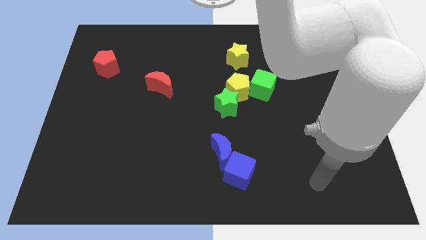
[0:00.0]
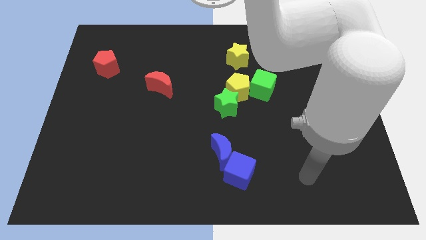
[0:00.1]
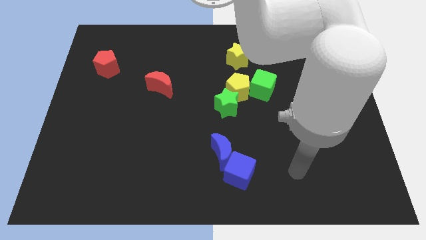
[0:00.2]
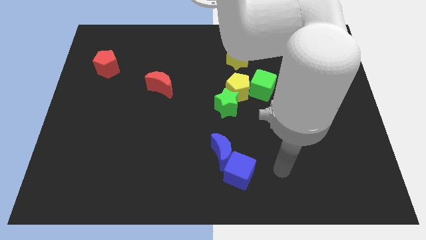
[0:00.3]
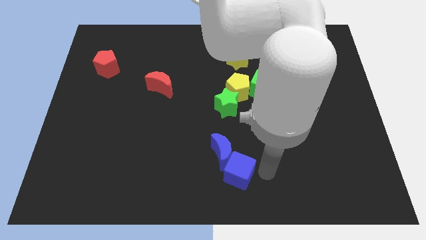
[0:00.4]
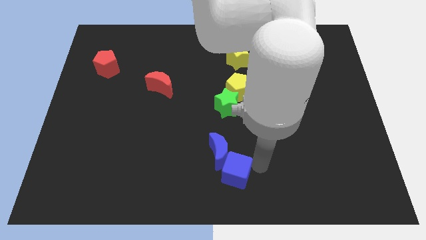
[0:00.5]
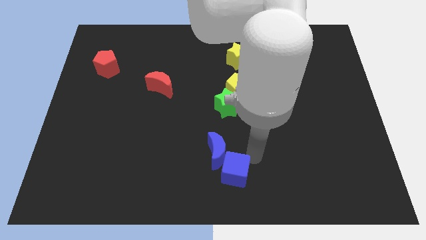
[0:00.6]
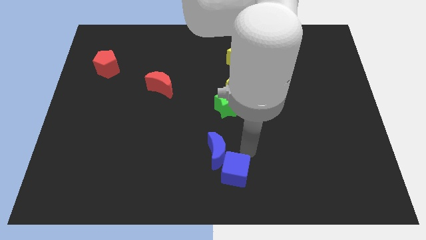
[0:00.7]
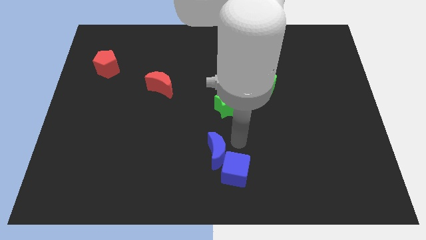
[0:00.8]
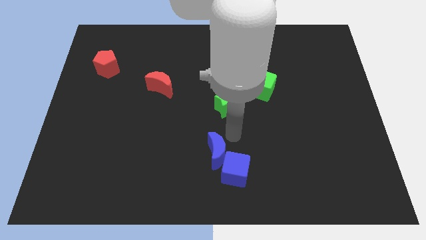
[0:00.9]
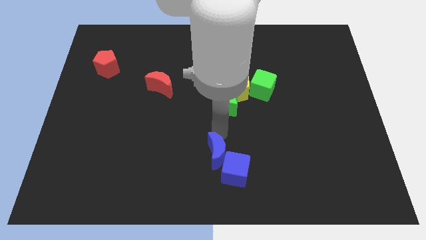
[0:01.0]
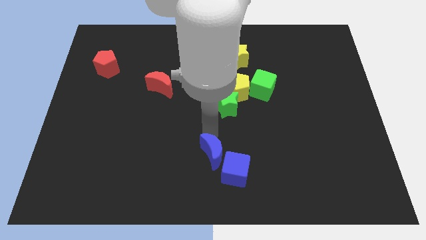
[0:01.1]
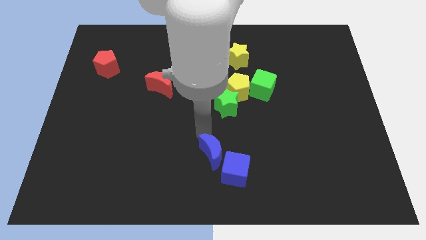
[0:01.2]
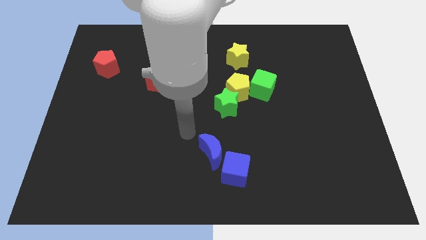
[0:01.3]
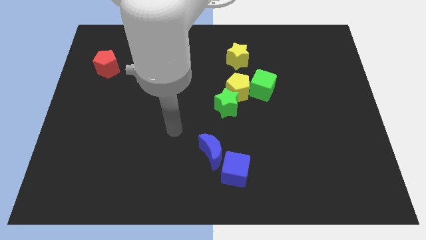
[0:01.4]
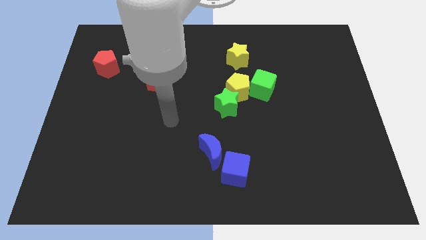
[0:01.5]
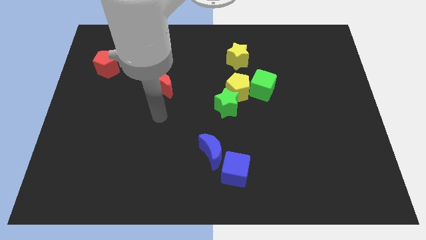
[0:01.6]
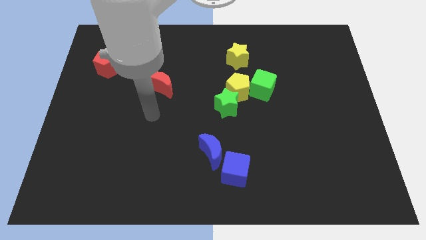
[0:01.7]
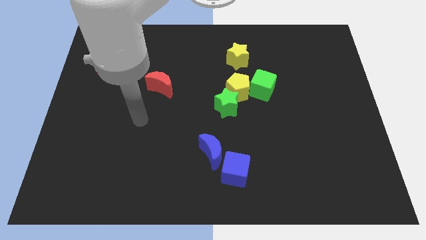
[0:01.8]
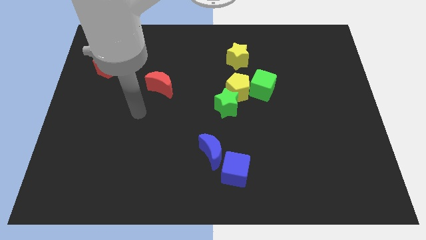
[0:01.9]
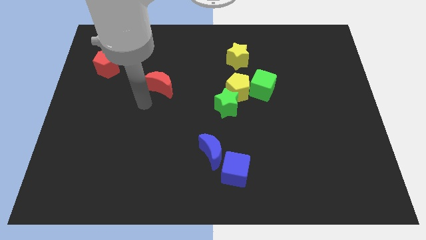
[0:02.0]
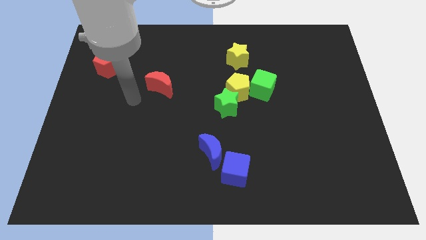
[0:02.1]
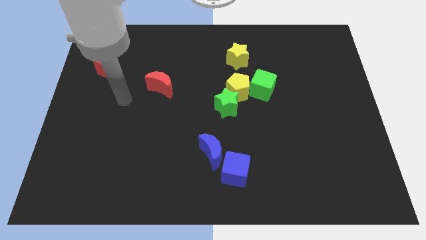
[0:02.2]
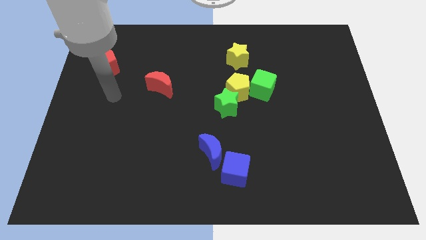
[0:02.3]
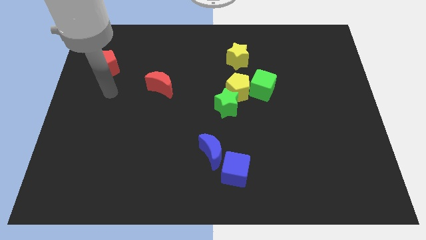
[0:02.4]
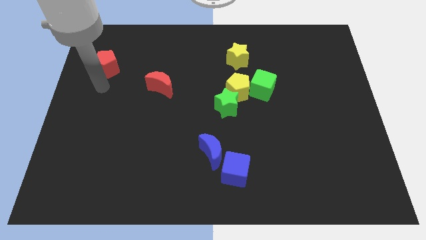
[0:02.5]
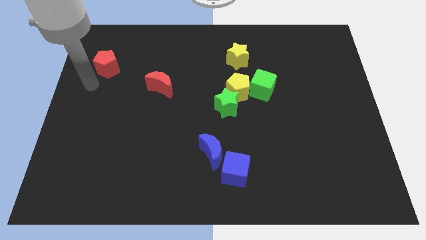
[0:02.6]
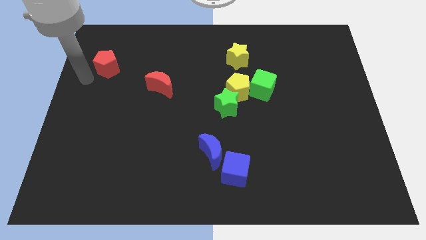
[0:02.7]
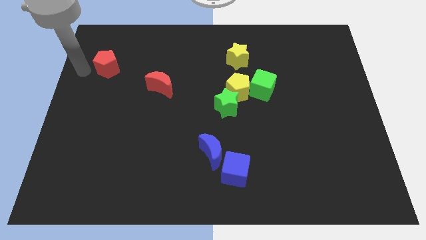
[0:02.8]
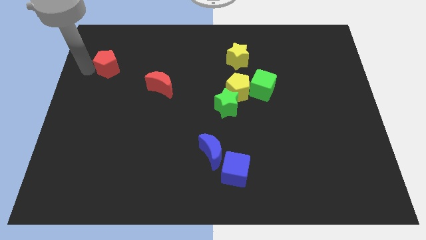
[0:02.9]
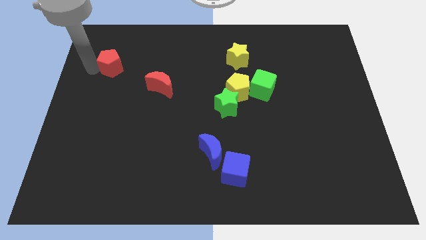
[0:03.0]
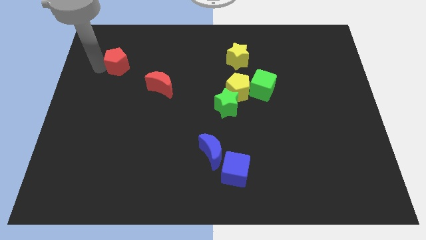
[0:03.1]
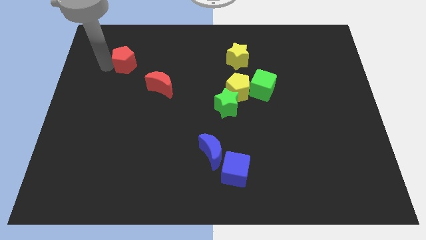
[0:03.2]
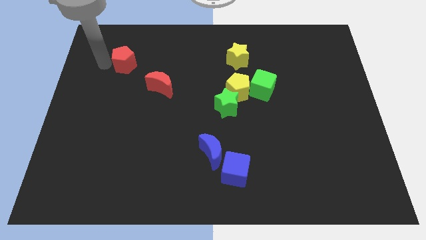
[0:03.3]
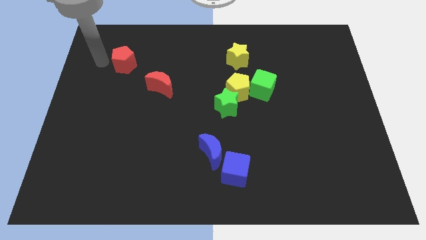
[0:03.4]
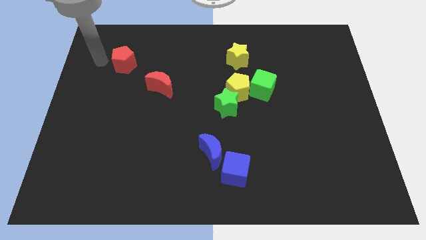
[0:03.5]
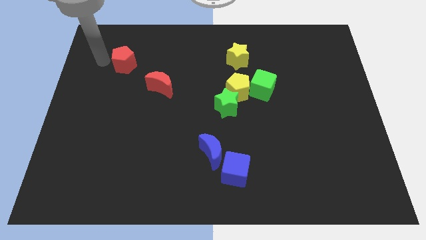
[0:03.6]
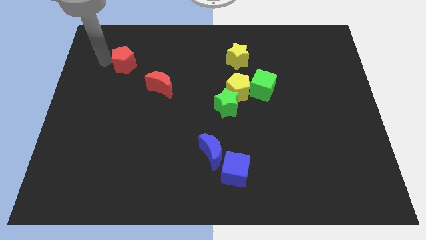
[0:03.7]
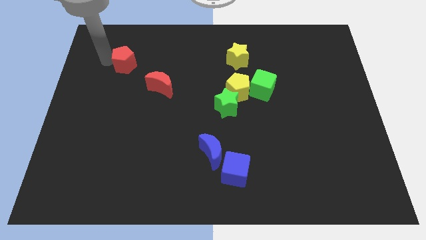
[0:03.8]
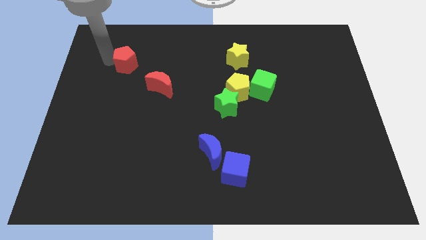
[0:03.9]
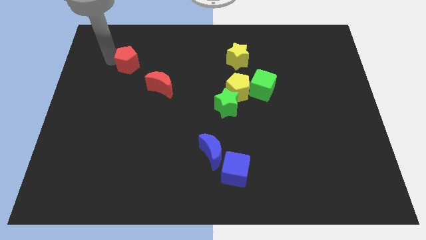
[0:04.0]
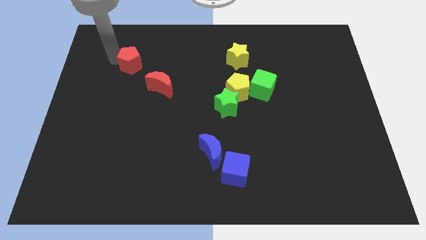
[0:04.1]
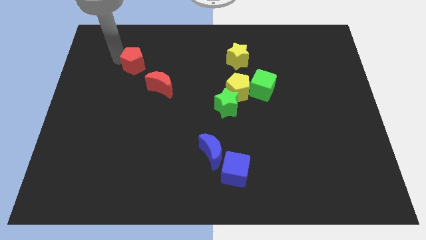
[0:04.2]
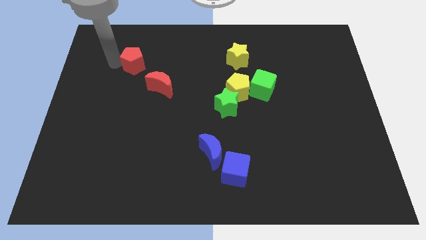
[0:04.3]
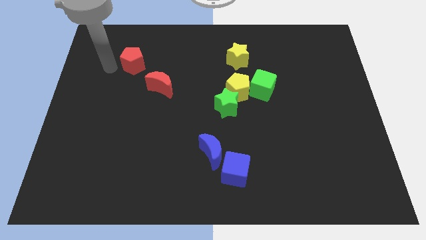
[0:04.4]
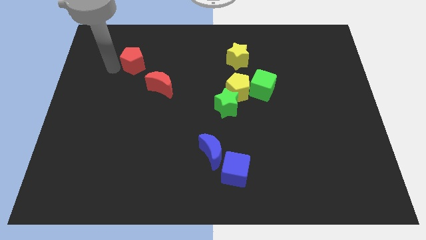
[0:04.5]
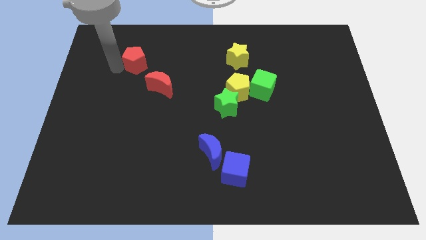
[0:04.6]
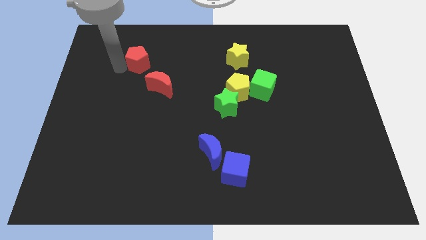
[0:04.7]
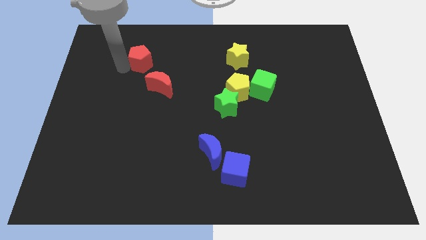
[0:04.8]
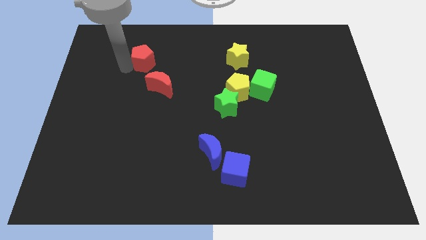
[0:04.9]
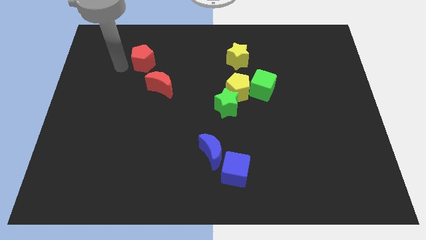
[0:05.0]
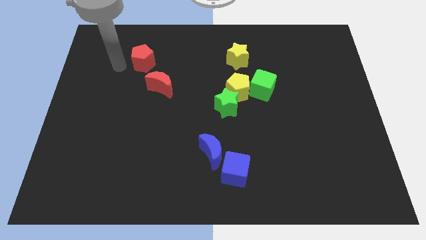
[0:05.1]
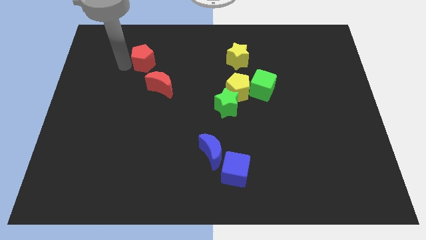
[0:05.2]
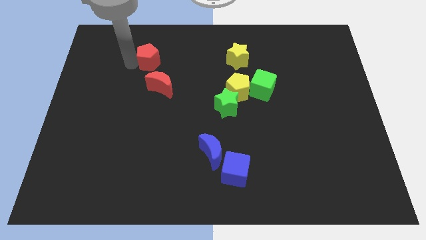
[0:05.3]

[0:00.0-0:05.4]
push the red pentagon above the red moon

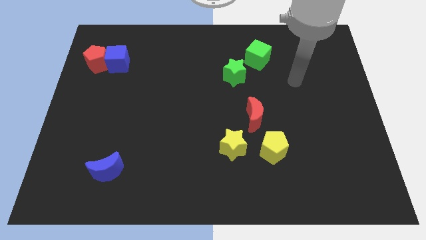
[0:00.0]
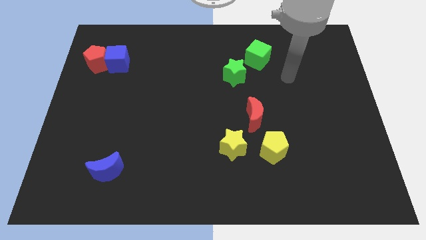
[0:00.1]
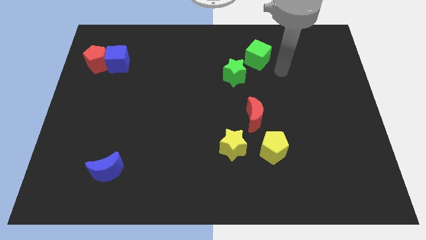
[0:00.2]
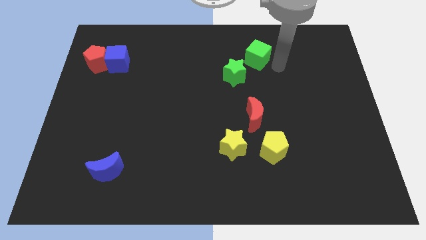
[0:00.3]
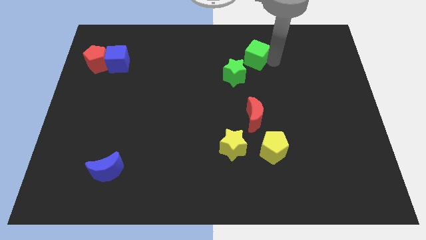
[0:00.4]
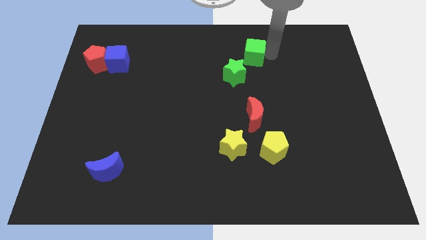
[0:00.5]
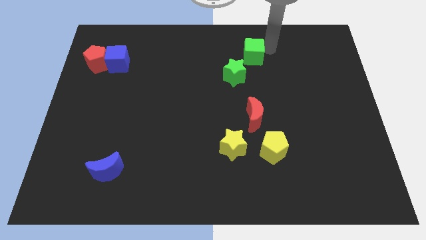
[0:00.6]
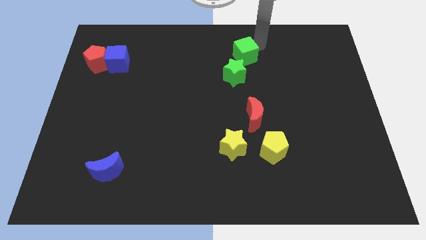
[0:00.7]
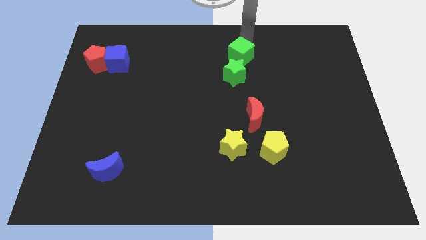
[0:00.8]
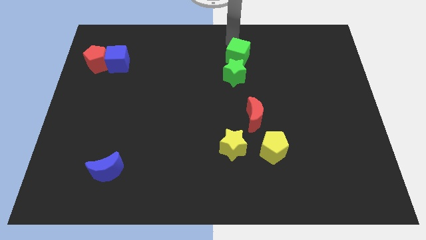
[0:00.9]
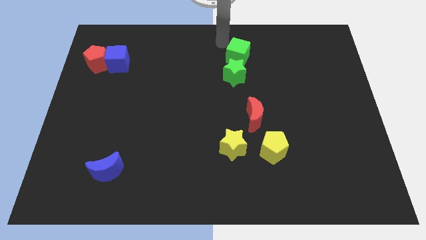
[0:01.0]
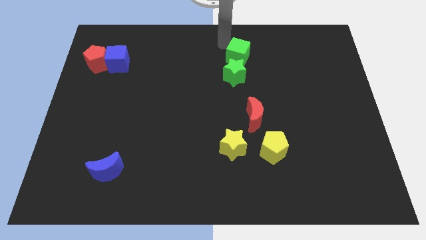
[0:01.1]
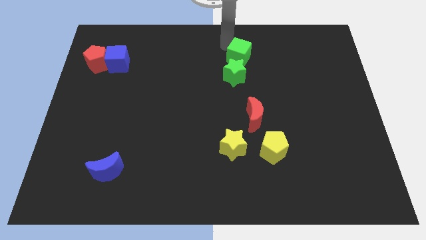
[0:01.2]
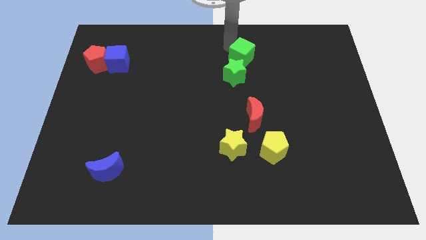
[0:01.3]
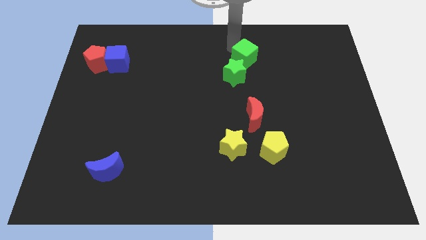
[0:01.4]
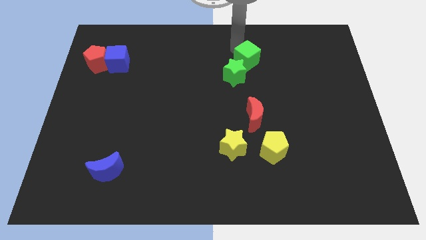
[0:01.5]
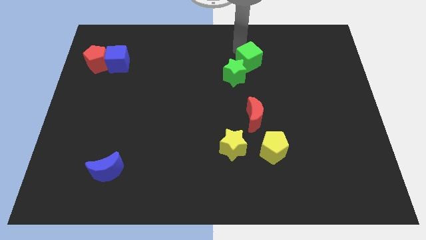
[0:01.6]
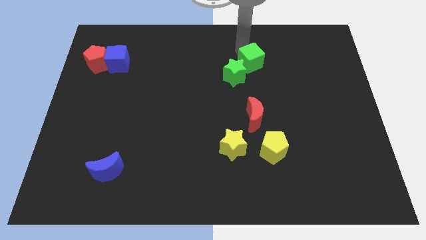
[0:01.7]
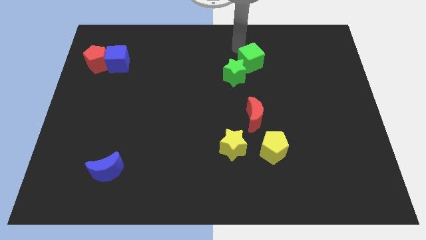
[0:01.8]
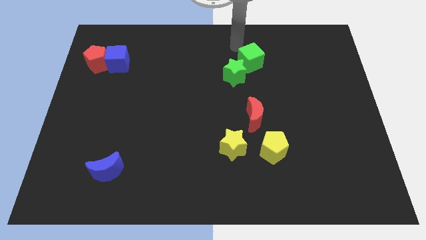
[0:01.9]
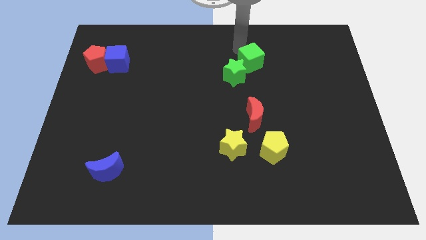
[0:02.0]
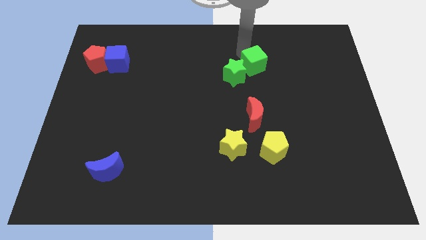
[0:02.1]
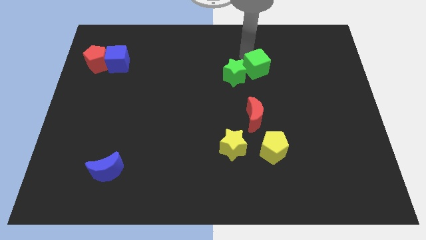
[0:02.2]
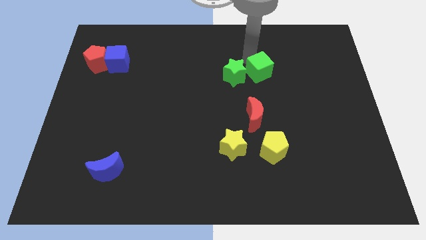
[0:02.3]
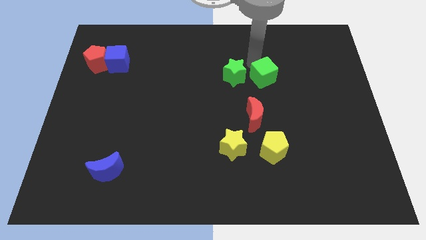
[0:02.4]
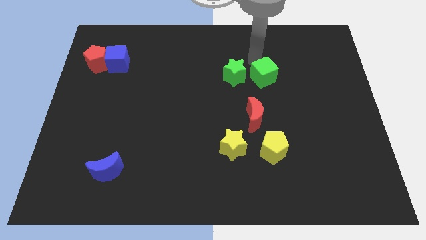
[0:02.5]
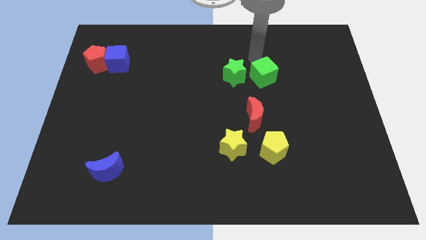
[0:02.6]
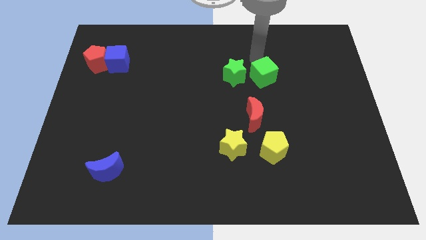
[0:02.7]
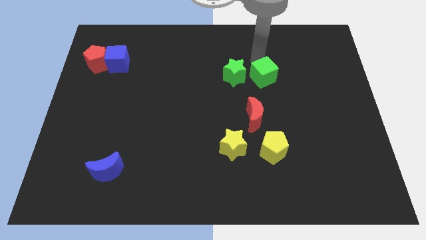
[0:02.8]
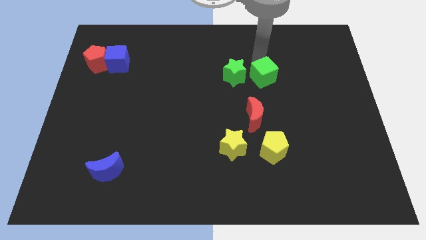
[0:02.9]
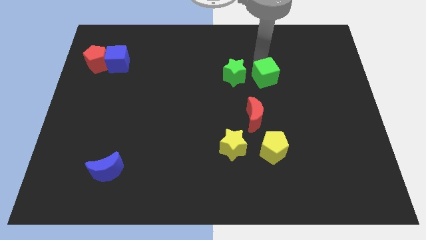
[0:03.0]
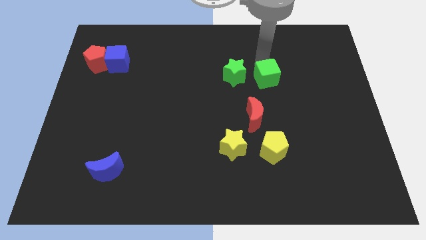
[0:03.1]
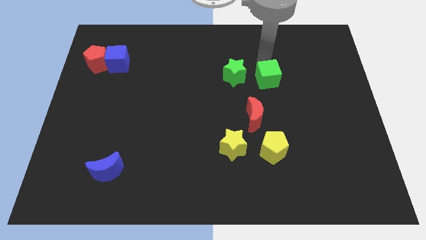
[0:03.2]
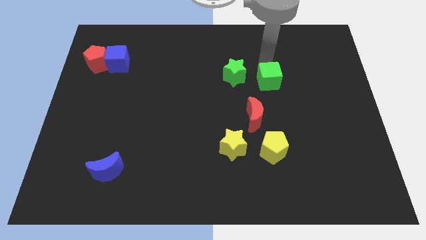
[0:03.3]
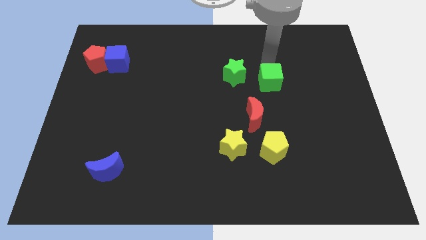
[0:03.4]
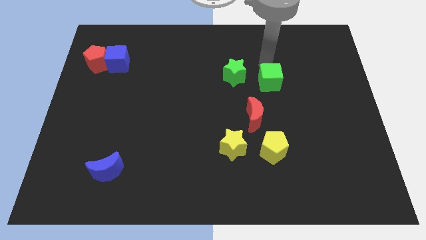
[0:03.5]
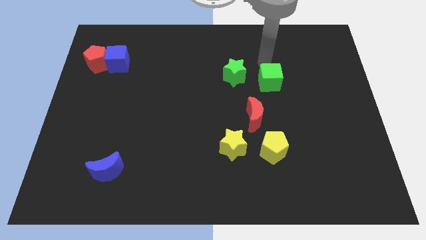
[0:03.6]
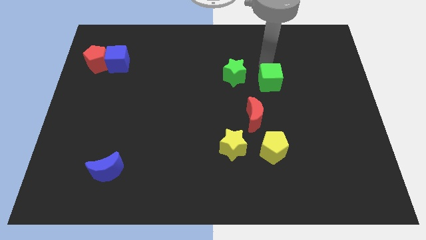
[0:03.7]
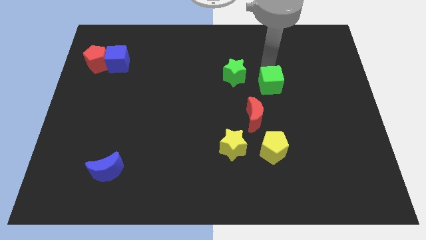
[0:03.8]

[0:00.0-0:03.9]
put the green cube diagonally up and to the right of the red moon
